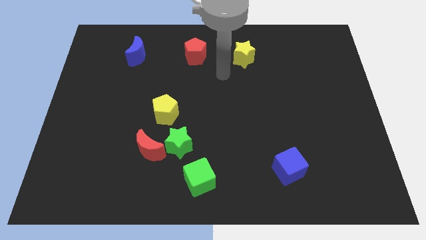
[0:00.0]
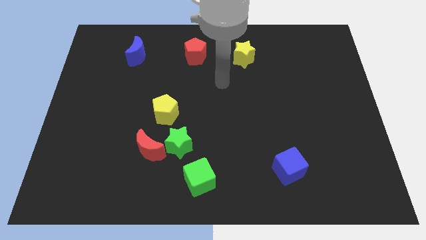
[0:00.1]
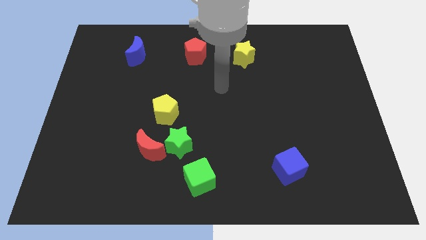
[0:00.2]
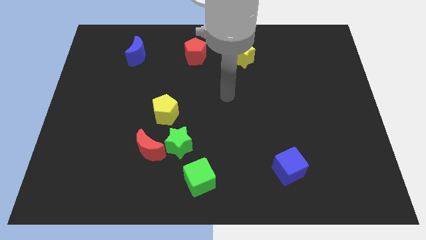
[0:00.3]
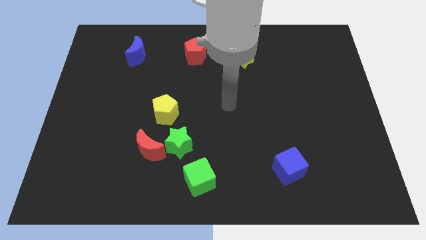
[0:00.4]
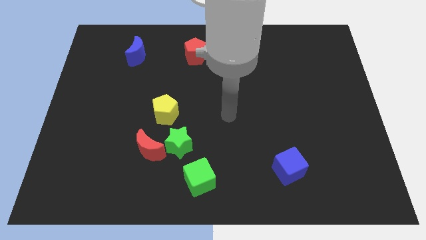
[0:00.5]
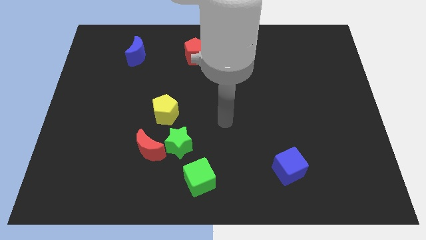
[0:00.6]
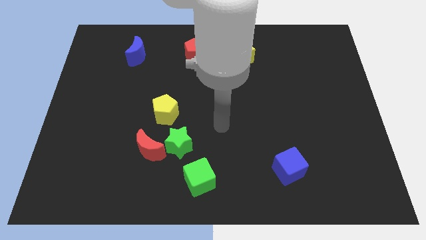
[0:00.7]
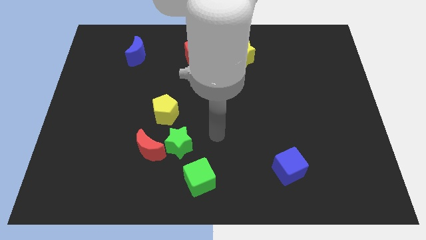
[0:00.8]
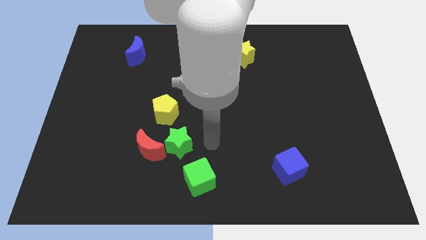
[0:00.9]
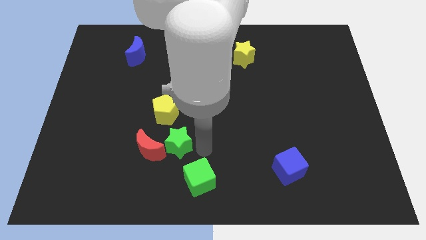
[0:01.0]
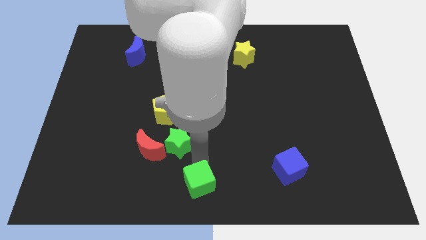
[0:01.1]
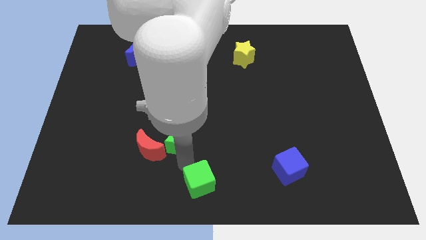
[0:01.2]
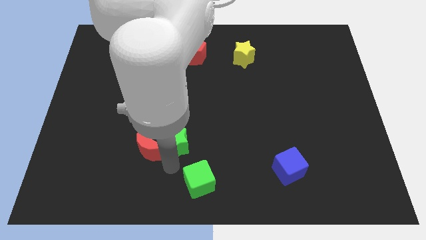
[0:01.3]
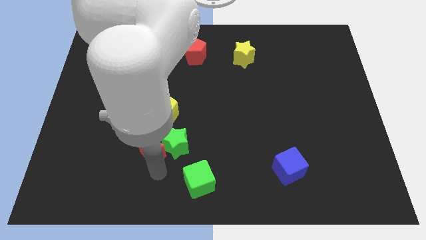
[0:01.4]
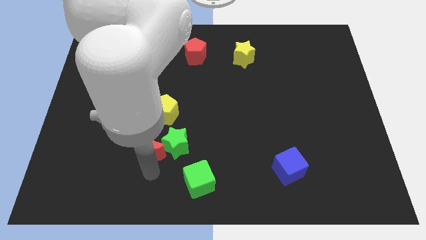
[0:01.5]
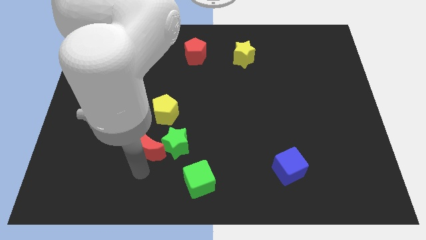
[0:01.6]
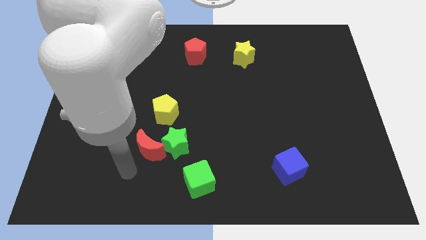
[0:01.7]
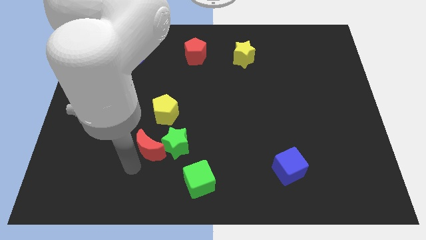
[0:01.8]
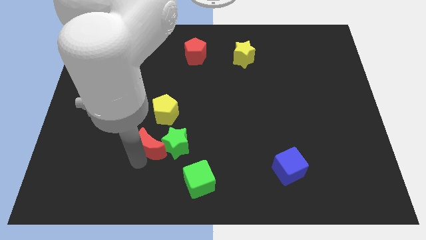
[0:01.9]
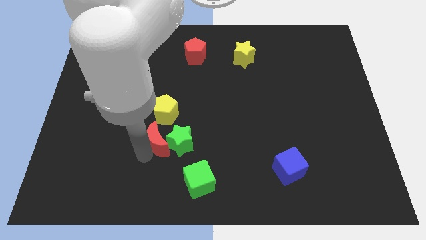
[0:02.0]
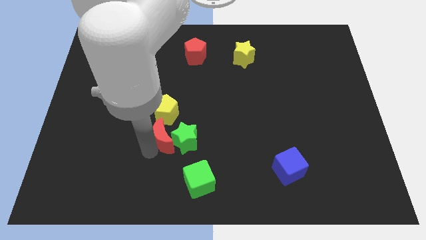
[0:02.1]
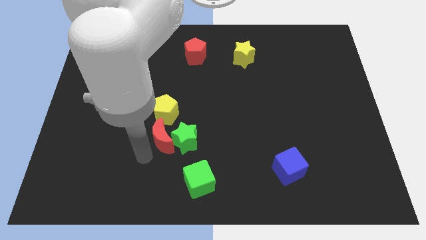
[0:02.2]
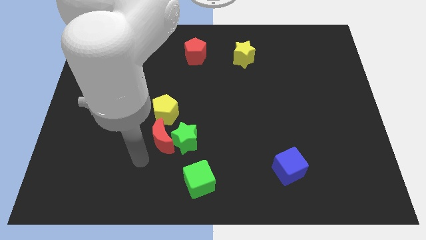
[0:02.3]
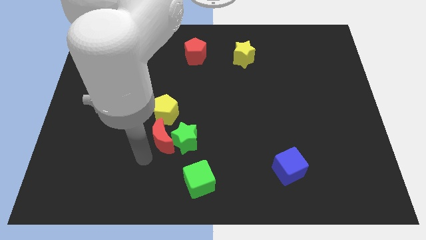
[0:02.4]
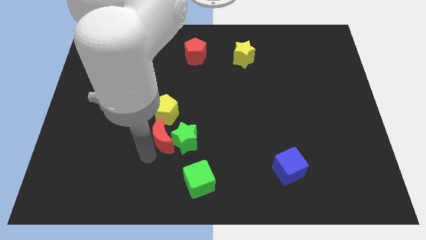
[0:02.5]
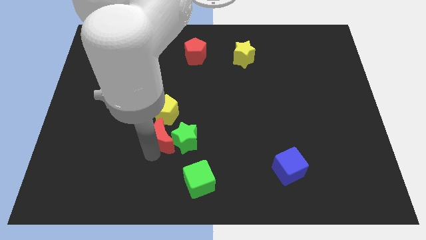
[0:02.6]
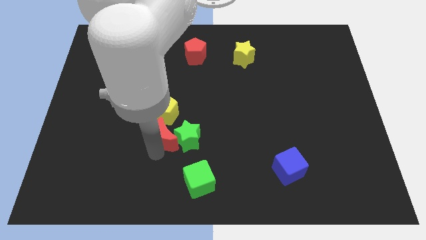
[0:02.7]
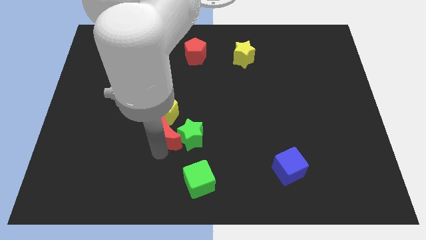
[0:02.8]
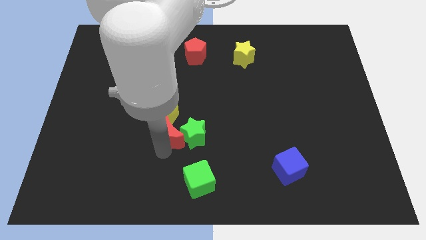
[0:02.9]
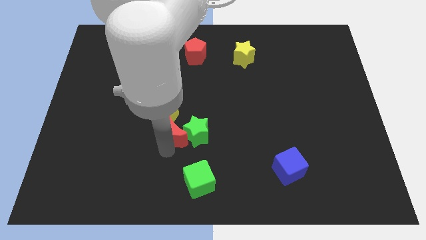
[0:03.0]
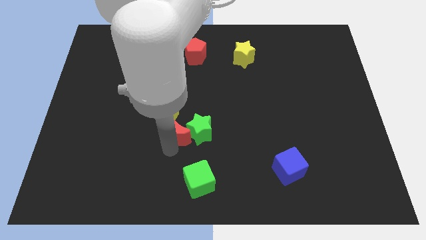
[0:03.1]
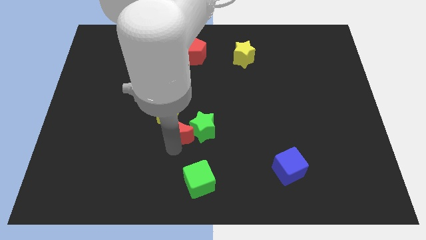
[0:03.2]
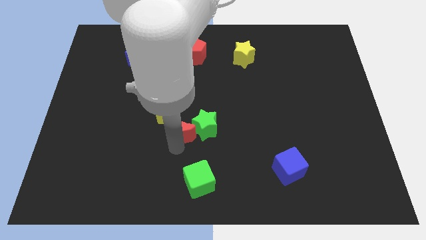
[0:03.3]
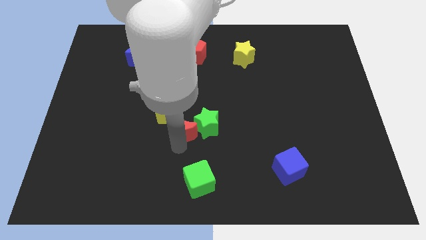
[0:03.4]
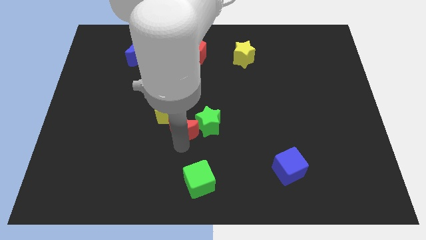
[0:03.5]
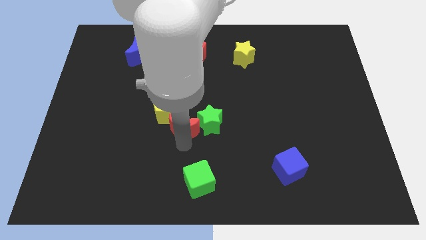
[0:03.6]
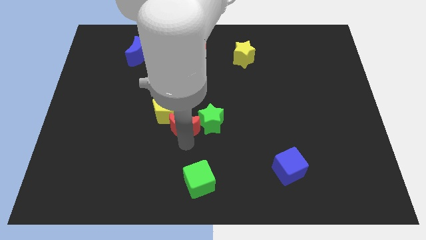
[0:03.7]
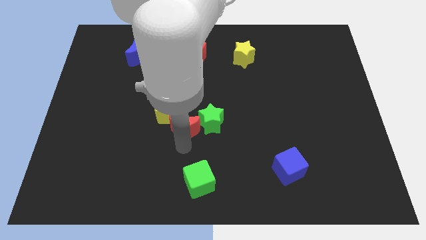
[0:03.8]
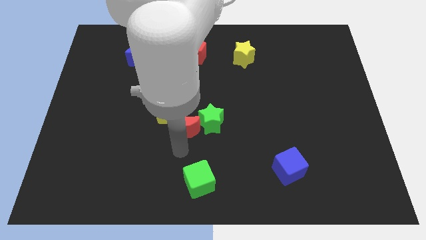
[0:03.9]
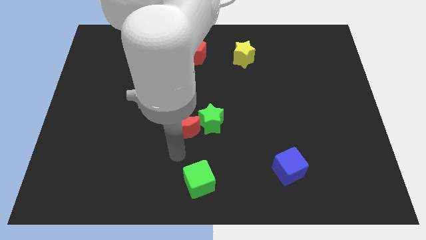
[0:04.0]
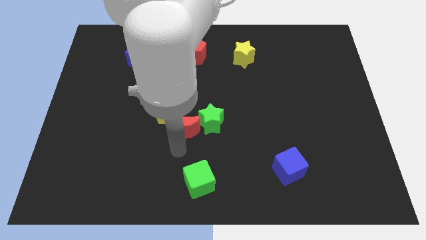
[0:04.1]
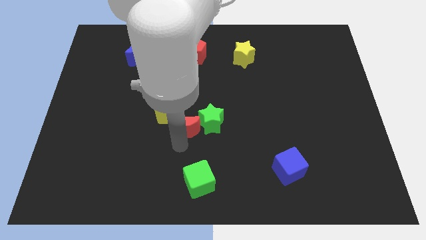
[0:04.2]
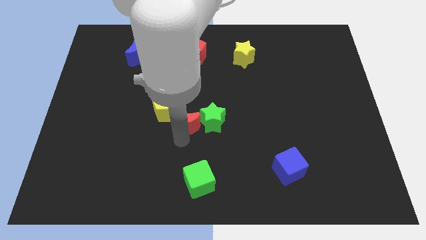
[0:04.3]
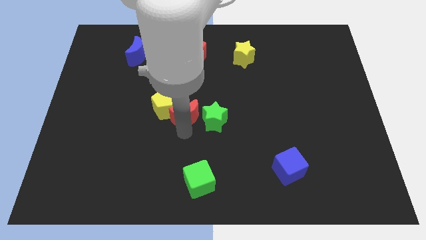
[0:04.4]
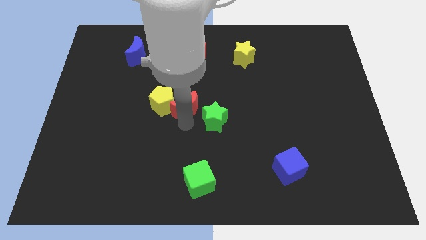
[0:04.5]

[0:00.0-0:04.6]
put the red moon to the top right side of the yellow pentagon

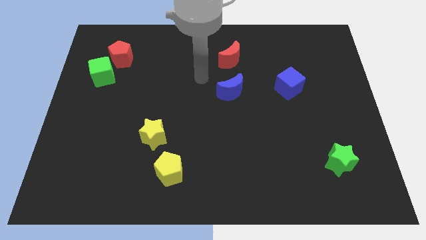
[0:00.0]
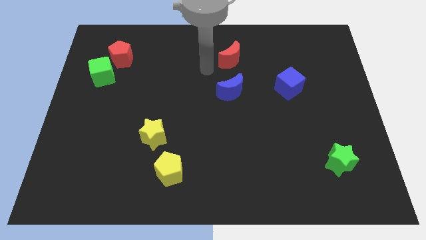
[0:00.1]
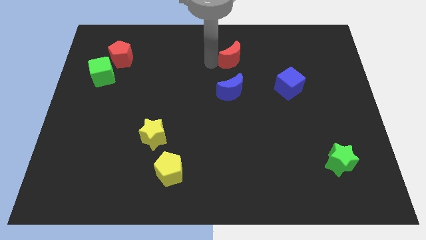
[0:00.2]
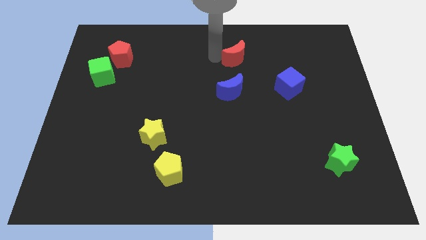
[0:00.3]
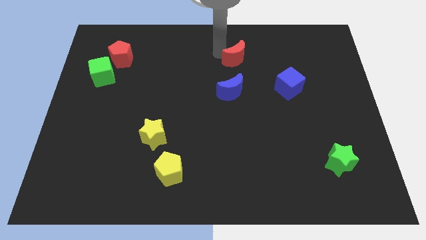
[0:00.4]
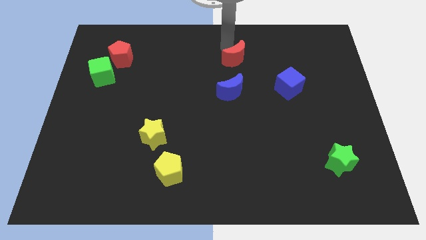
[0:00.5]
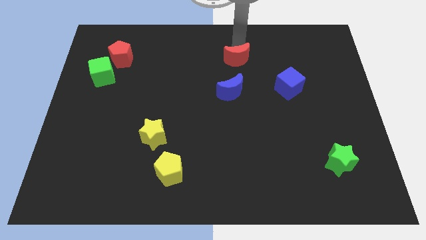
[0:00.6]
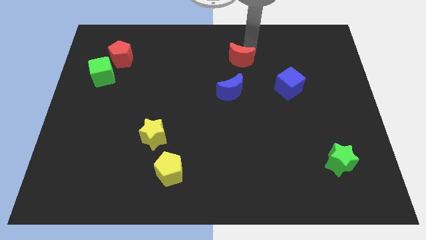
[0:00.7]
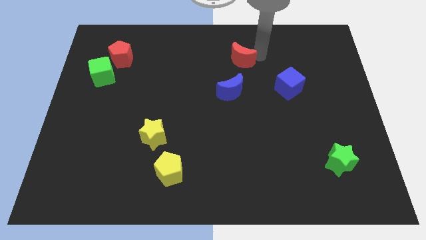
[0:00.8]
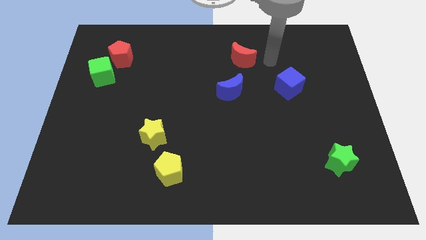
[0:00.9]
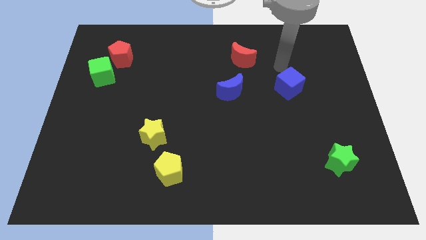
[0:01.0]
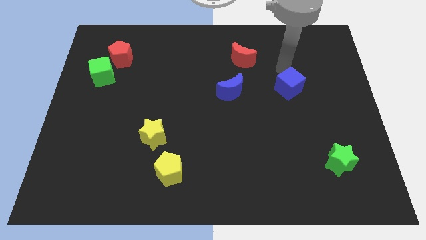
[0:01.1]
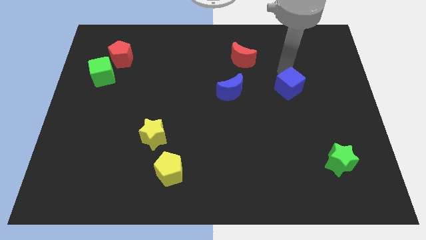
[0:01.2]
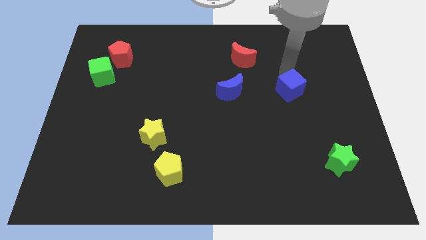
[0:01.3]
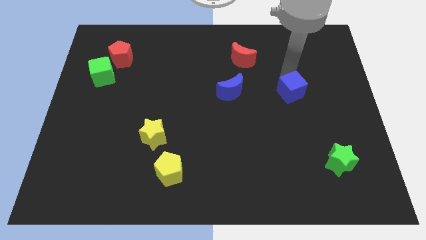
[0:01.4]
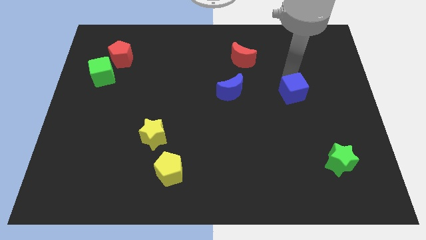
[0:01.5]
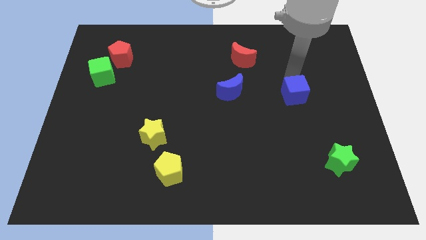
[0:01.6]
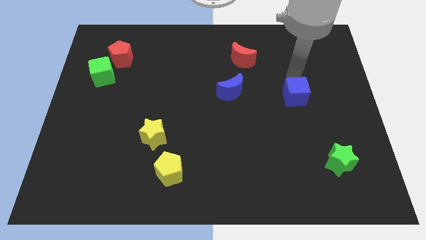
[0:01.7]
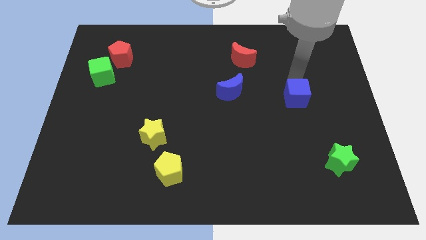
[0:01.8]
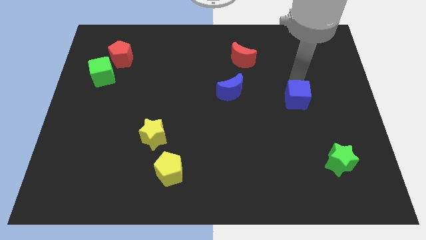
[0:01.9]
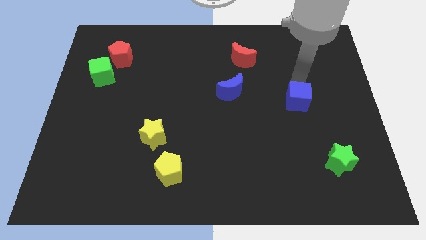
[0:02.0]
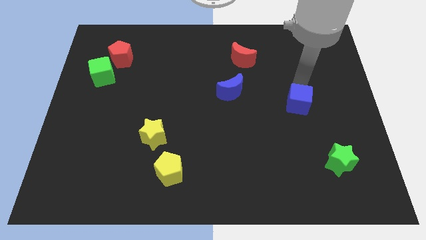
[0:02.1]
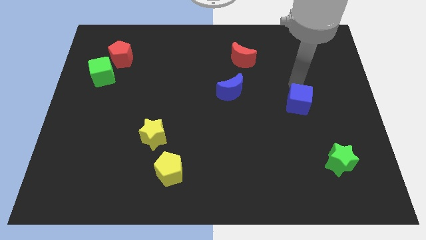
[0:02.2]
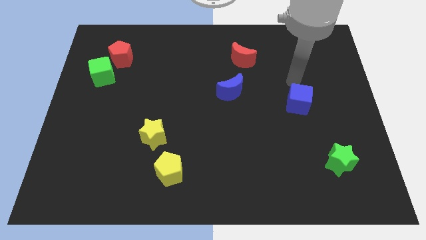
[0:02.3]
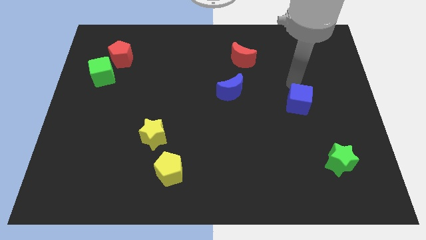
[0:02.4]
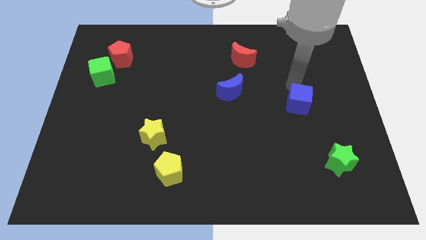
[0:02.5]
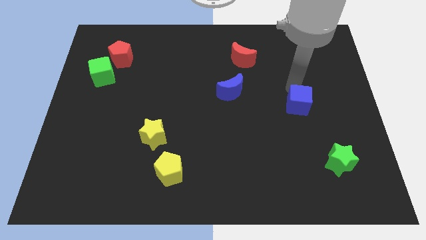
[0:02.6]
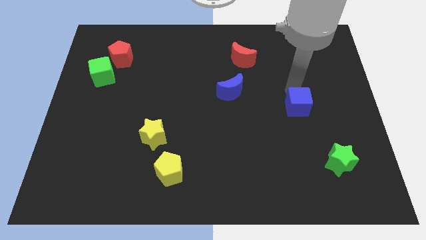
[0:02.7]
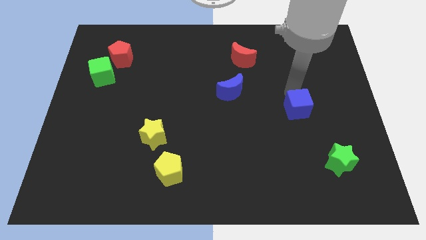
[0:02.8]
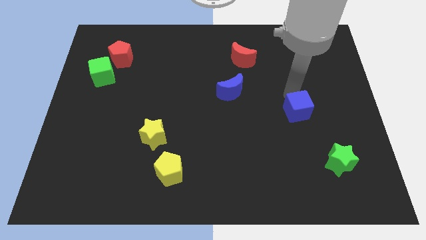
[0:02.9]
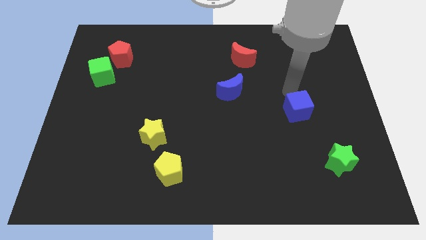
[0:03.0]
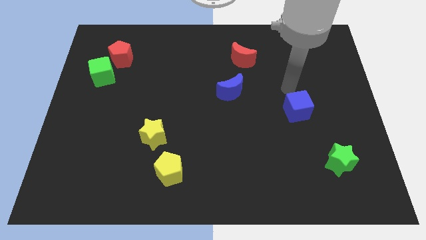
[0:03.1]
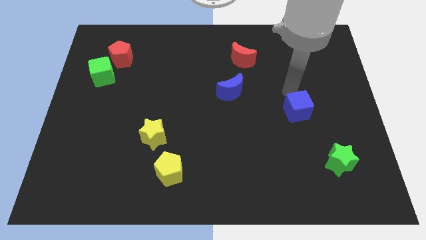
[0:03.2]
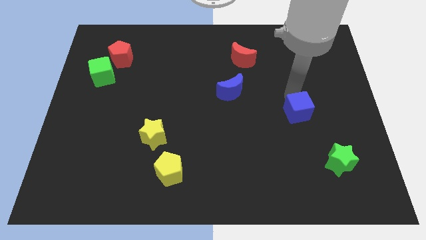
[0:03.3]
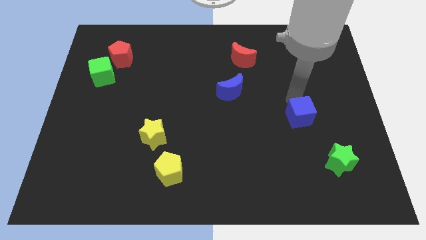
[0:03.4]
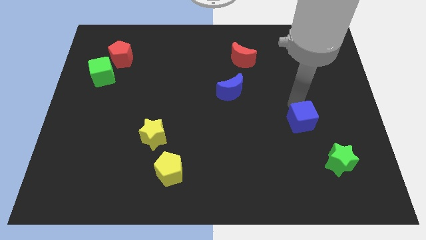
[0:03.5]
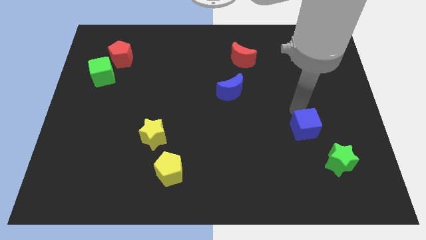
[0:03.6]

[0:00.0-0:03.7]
slide the blue cube diagonally up and to the left of the green star
